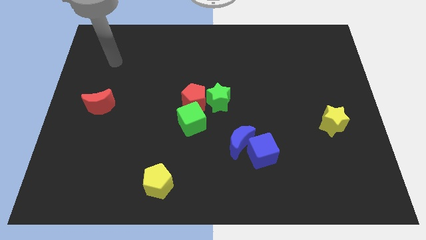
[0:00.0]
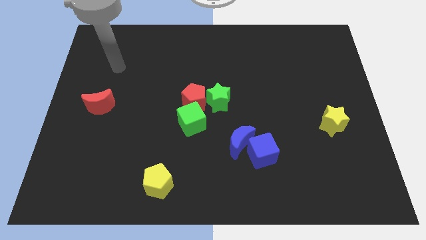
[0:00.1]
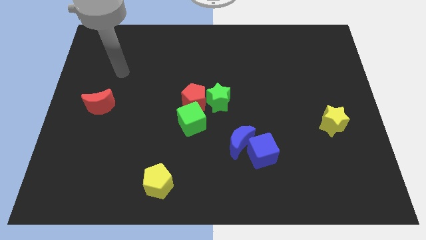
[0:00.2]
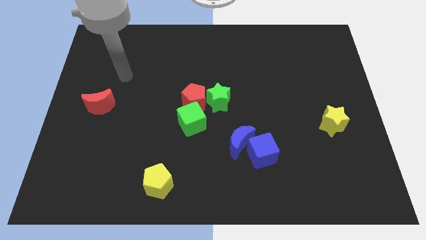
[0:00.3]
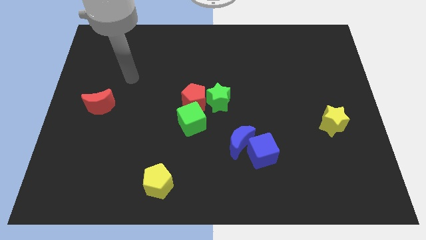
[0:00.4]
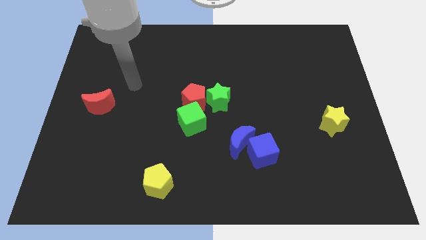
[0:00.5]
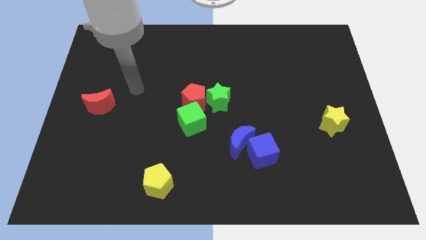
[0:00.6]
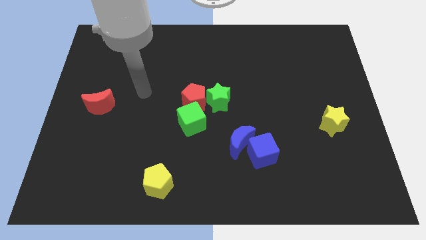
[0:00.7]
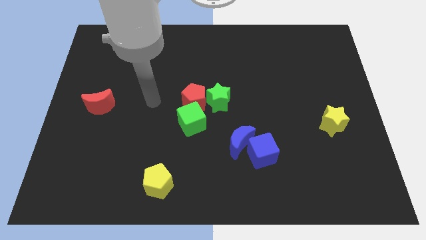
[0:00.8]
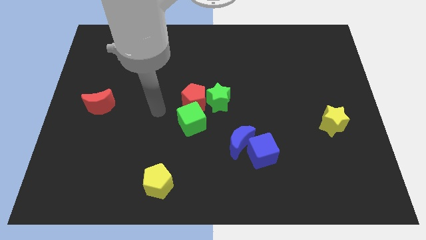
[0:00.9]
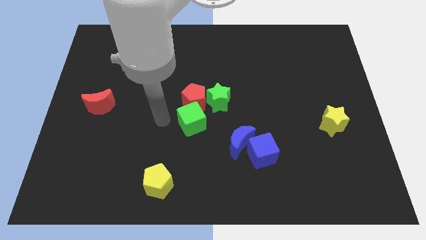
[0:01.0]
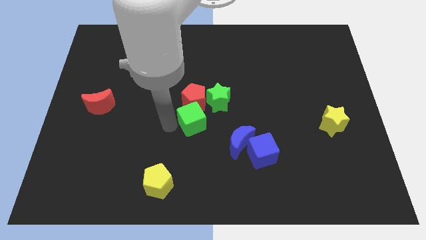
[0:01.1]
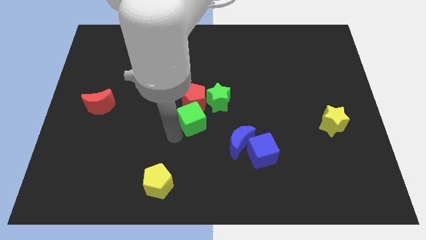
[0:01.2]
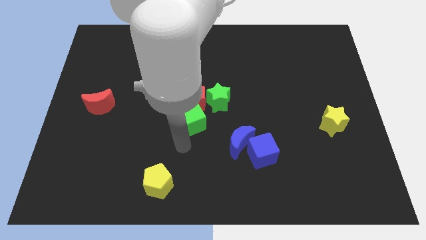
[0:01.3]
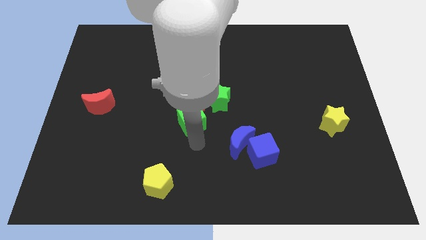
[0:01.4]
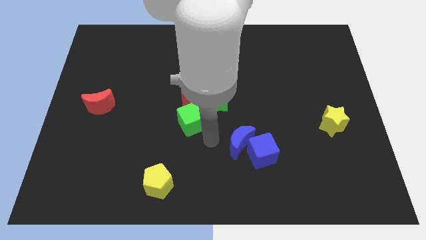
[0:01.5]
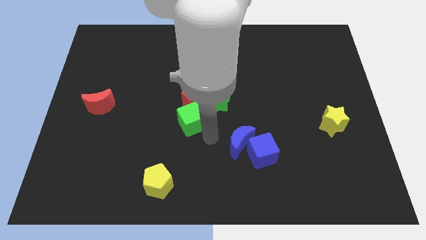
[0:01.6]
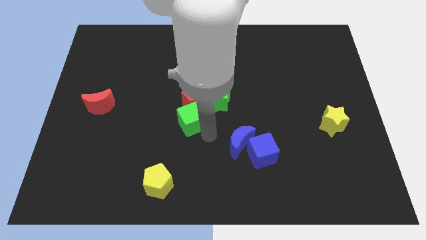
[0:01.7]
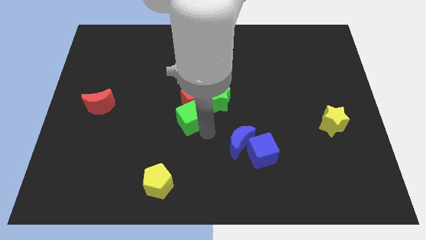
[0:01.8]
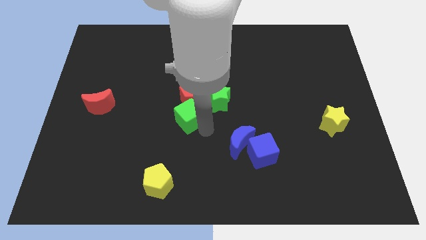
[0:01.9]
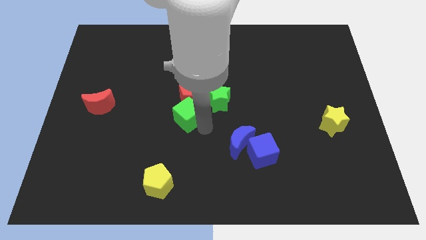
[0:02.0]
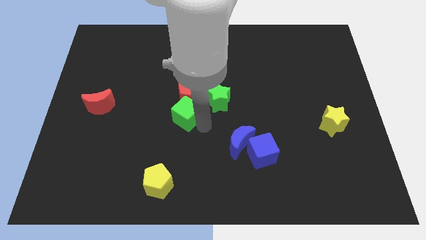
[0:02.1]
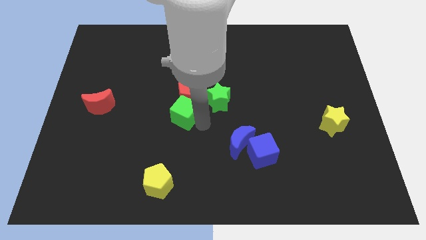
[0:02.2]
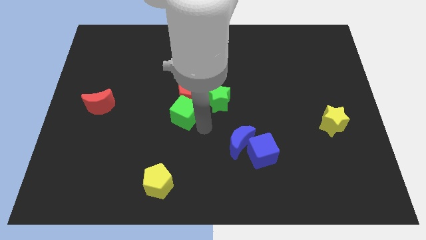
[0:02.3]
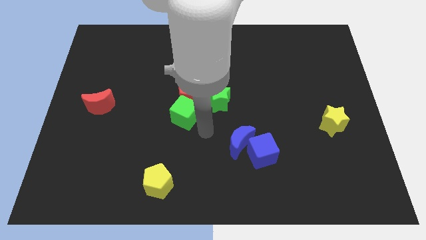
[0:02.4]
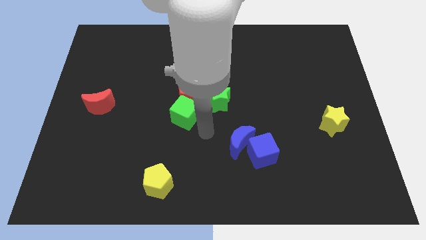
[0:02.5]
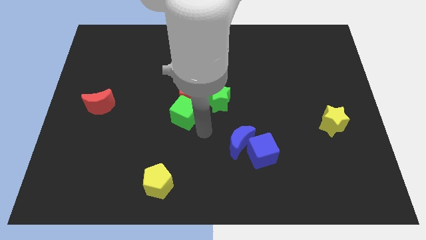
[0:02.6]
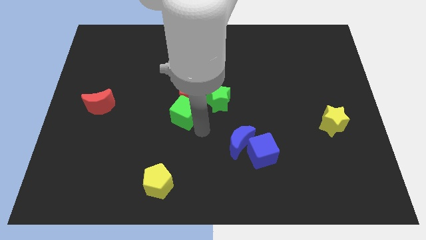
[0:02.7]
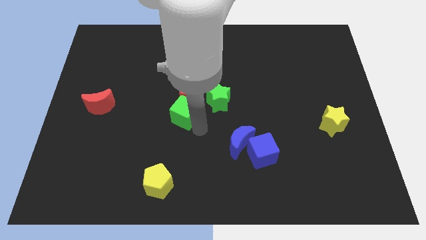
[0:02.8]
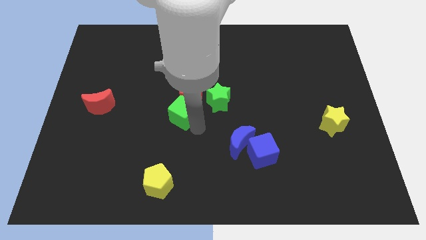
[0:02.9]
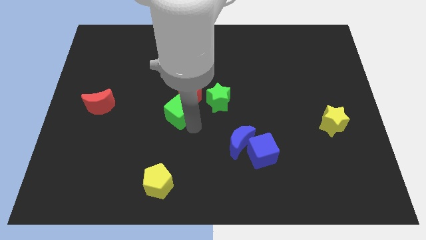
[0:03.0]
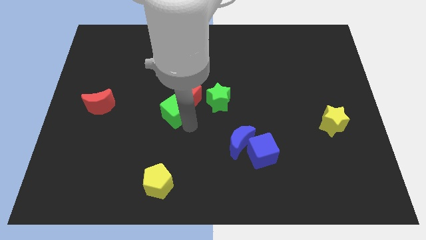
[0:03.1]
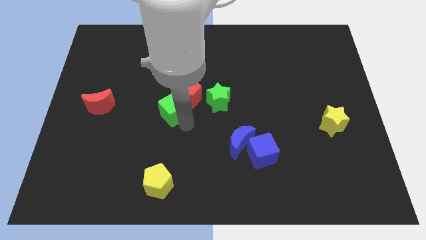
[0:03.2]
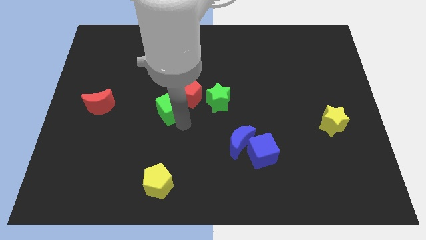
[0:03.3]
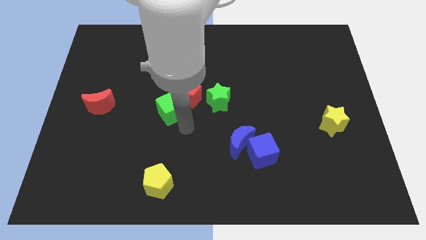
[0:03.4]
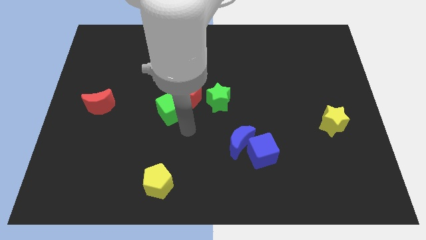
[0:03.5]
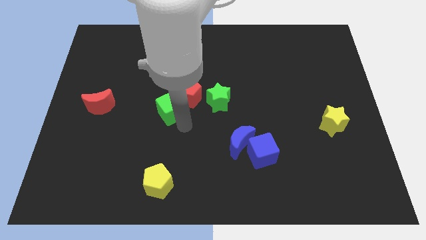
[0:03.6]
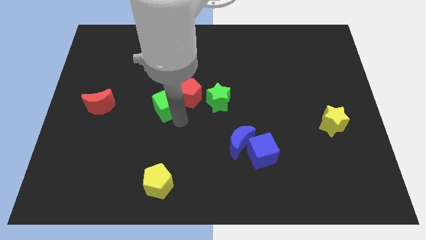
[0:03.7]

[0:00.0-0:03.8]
slightly move the green cube upwards and left

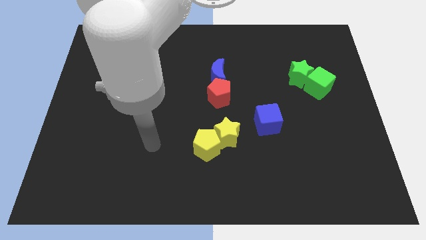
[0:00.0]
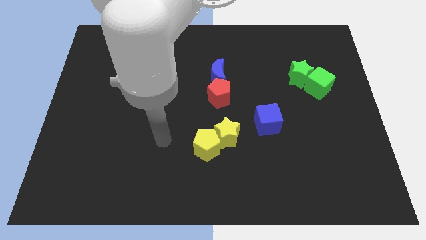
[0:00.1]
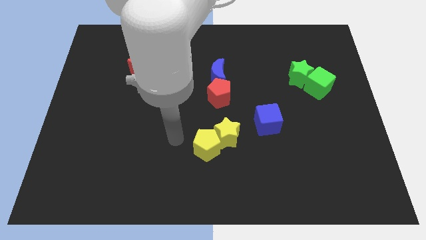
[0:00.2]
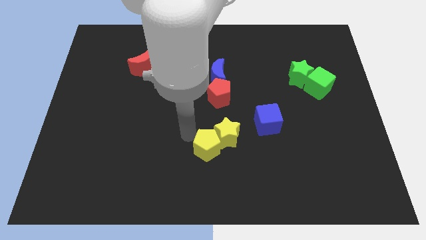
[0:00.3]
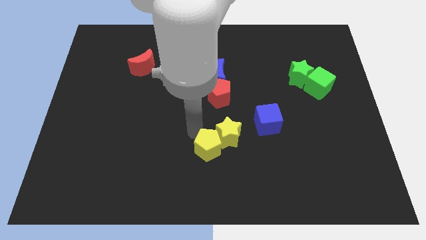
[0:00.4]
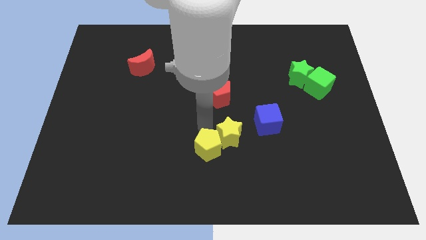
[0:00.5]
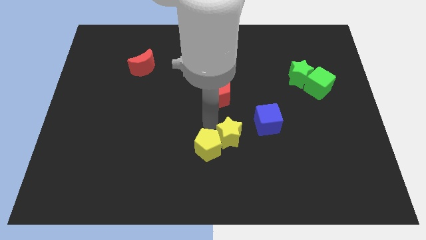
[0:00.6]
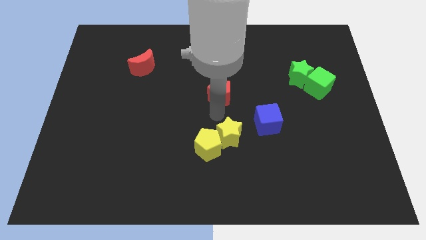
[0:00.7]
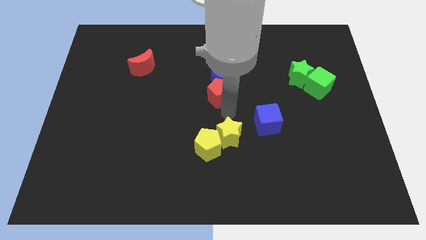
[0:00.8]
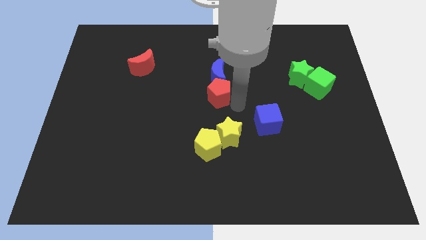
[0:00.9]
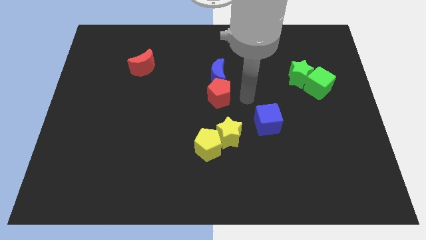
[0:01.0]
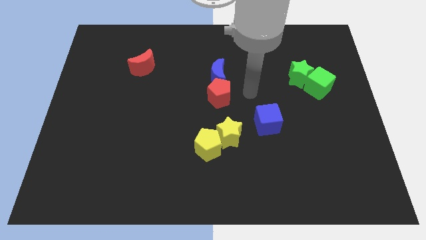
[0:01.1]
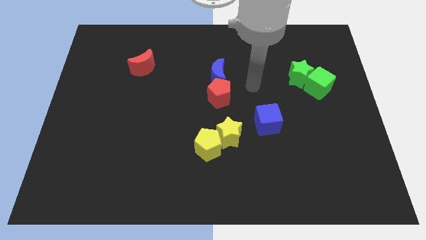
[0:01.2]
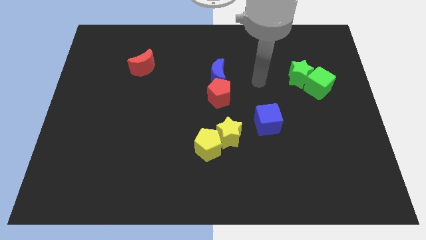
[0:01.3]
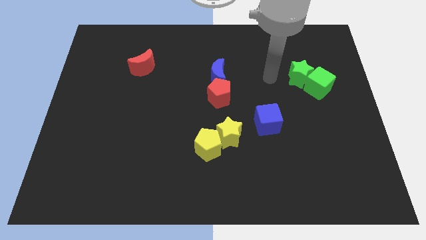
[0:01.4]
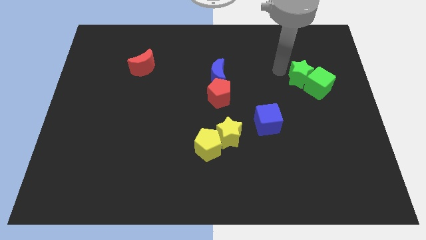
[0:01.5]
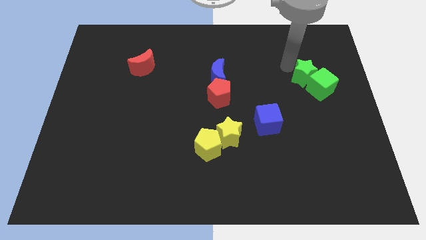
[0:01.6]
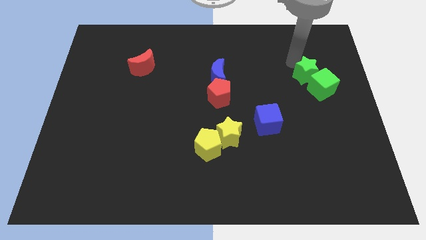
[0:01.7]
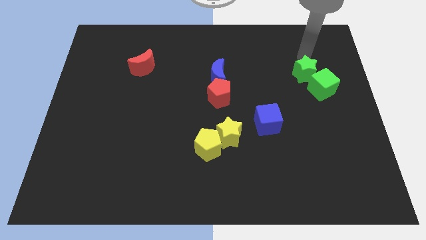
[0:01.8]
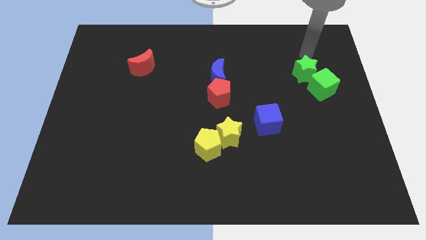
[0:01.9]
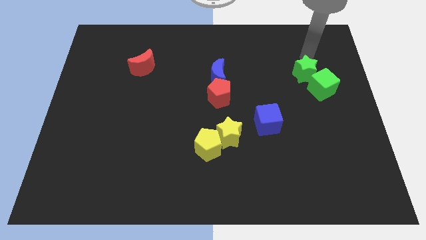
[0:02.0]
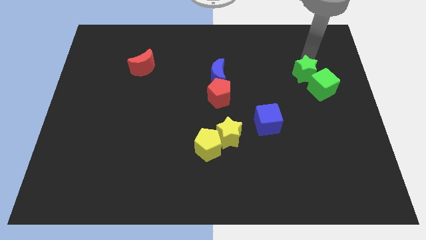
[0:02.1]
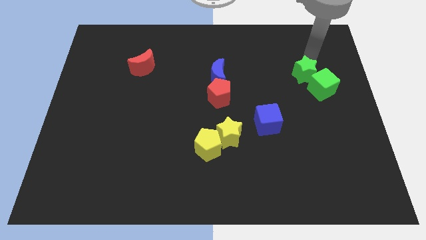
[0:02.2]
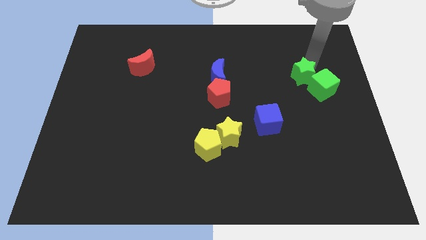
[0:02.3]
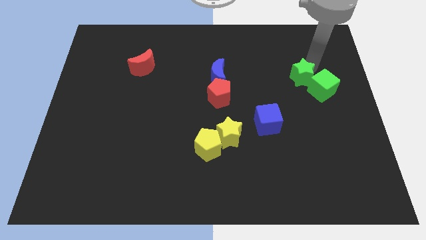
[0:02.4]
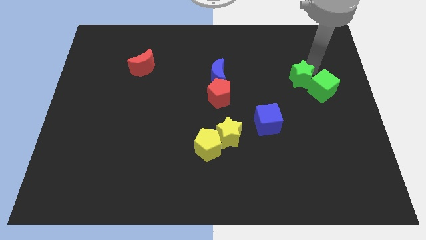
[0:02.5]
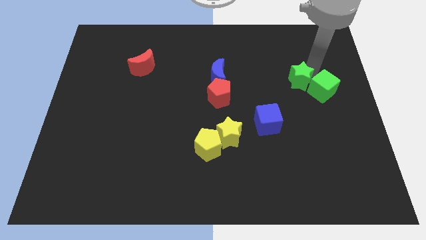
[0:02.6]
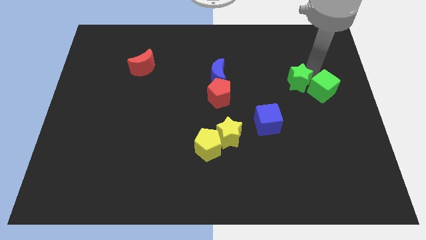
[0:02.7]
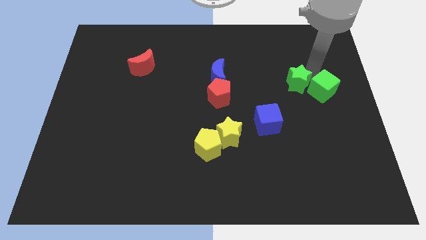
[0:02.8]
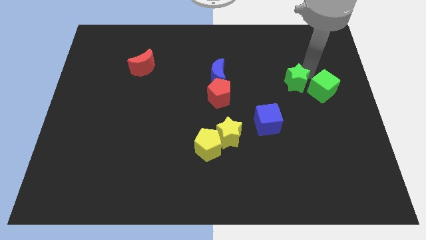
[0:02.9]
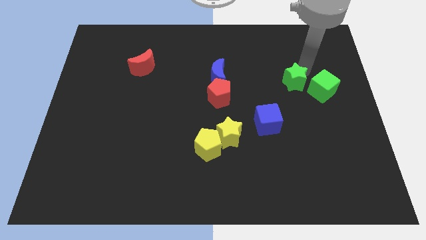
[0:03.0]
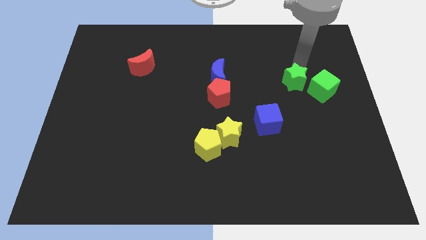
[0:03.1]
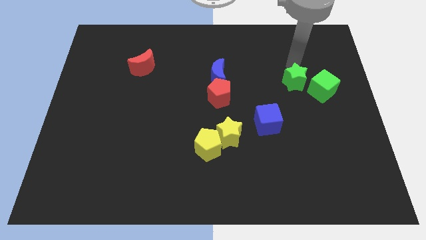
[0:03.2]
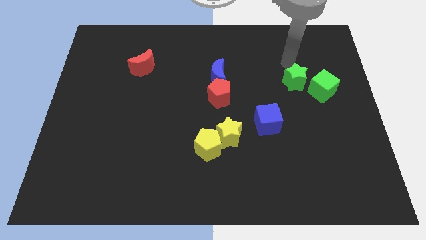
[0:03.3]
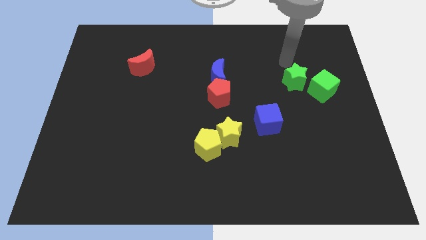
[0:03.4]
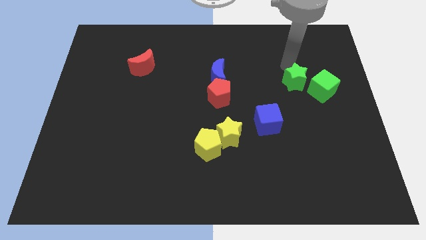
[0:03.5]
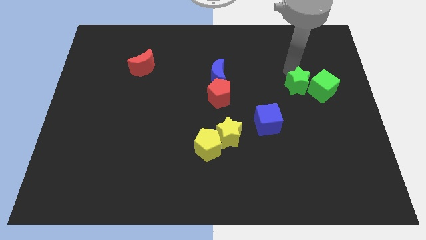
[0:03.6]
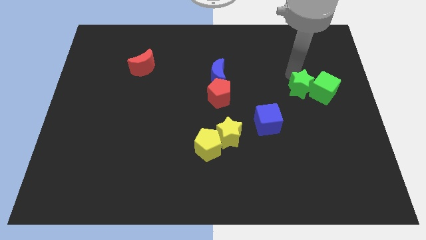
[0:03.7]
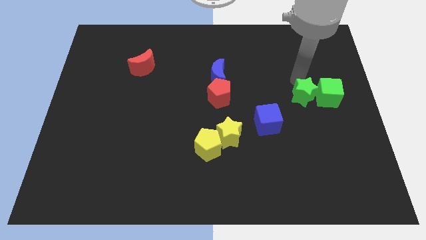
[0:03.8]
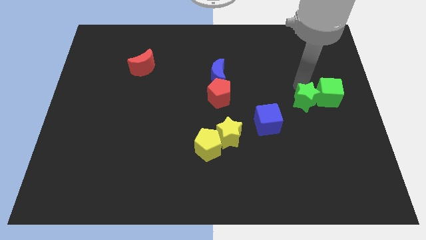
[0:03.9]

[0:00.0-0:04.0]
slightly slide the green star downwards

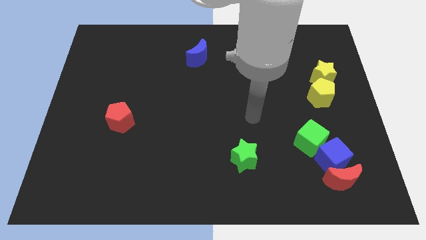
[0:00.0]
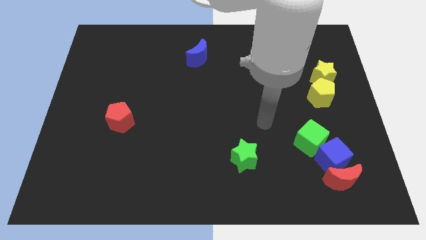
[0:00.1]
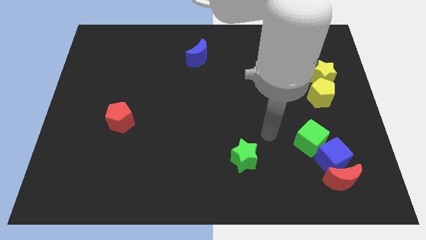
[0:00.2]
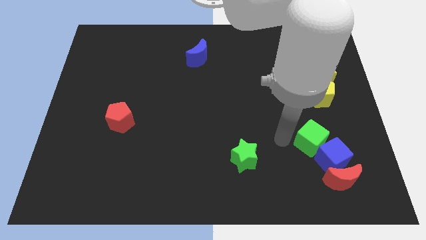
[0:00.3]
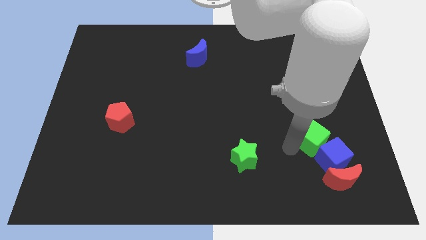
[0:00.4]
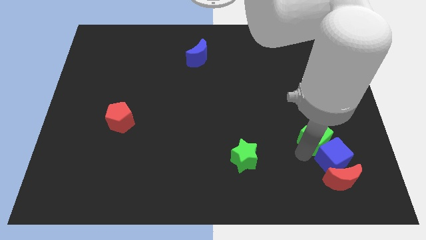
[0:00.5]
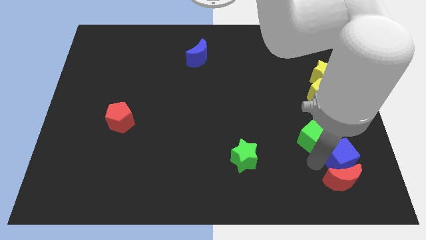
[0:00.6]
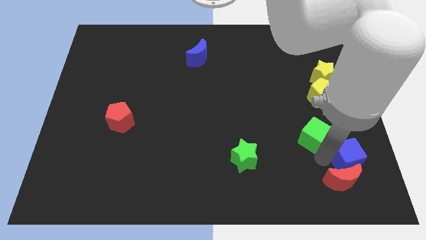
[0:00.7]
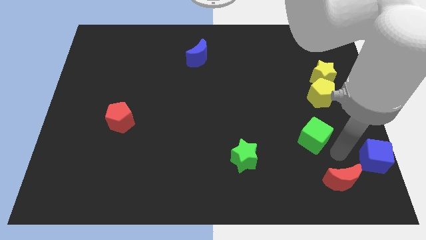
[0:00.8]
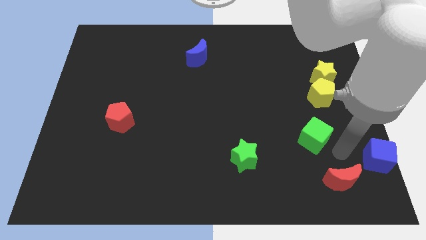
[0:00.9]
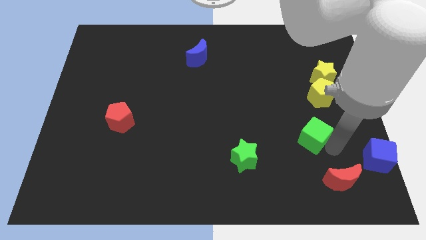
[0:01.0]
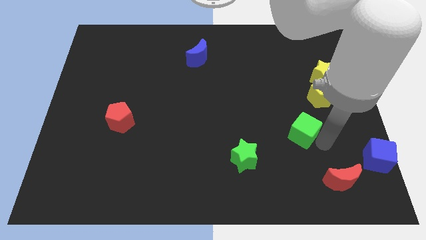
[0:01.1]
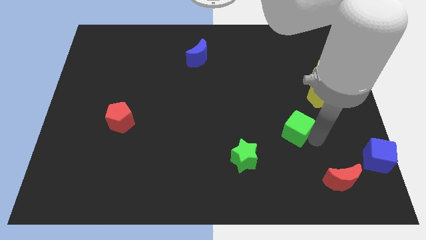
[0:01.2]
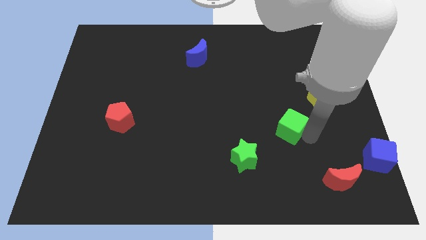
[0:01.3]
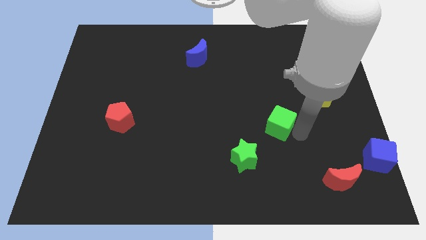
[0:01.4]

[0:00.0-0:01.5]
move the green cube diagonally up and to the left somewhat
